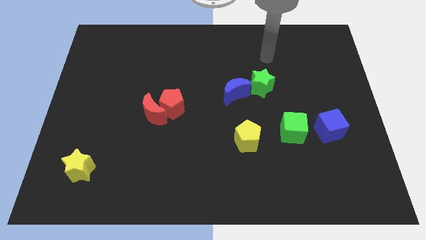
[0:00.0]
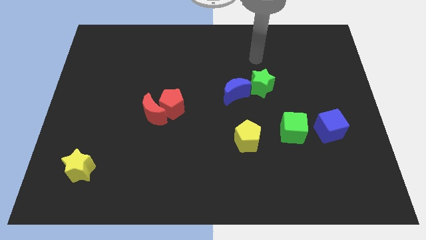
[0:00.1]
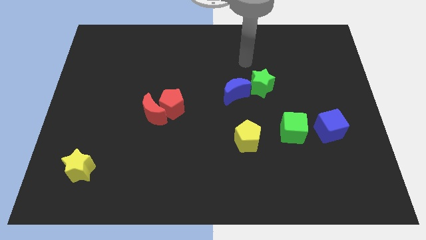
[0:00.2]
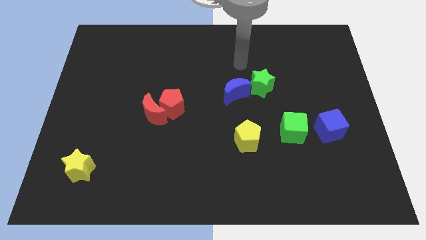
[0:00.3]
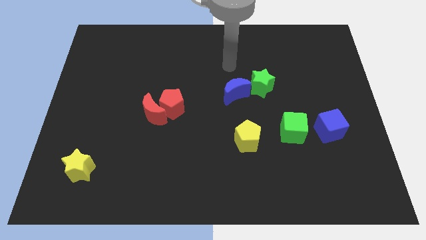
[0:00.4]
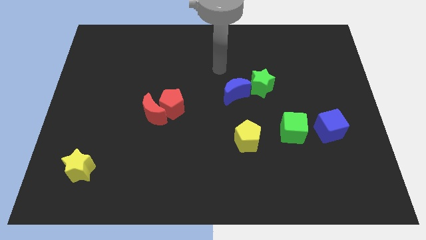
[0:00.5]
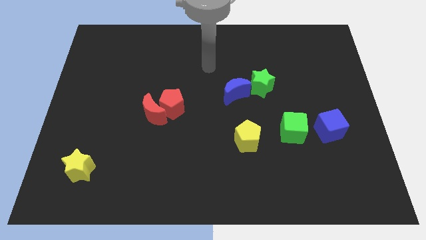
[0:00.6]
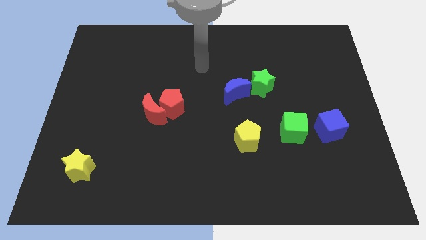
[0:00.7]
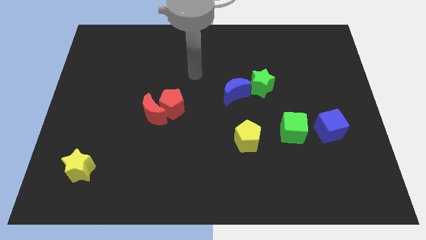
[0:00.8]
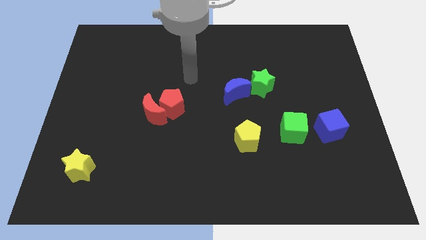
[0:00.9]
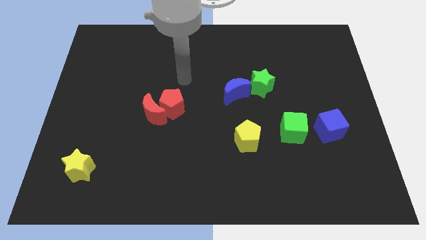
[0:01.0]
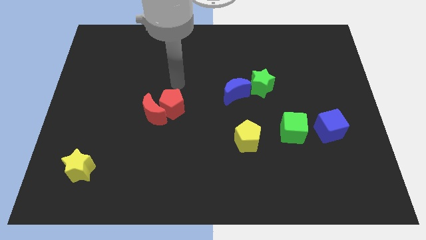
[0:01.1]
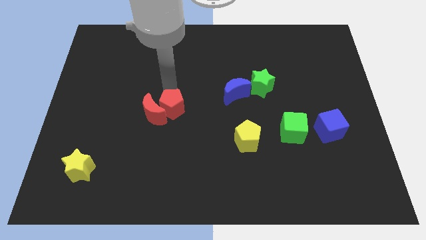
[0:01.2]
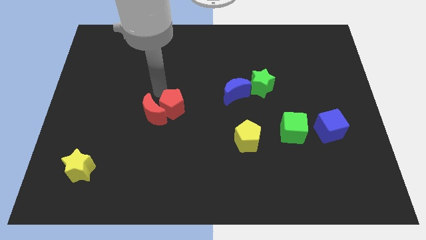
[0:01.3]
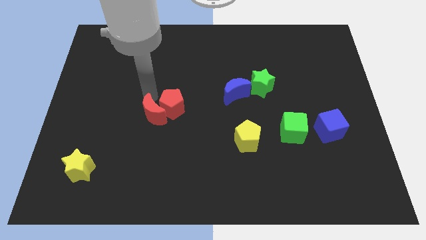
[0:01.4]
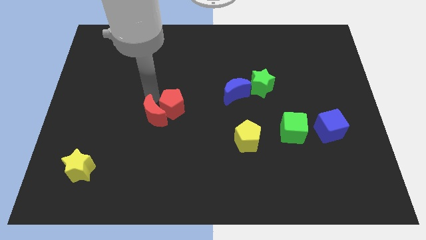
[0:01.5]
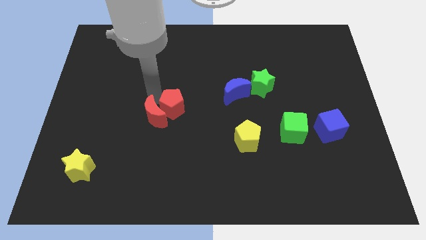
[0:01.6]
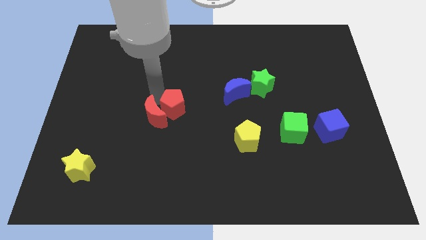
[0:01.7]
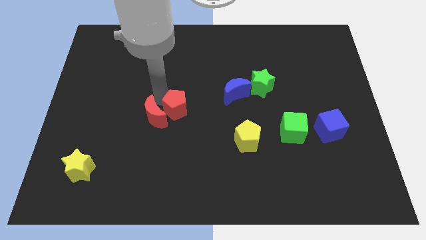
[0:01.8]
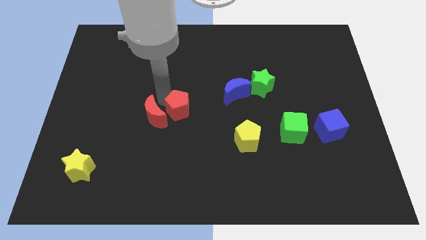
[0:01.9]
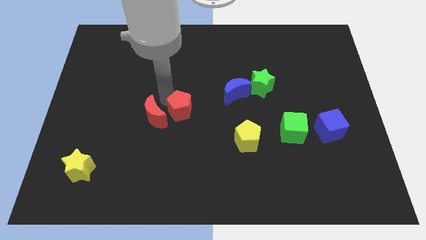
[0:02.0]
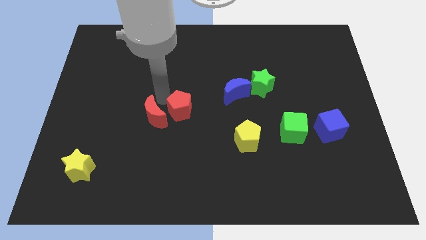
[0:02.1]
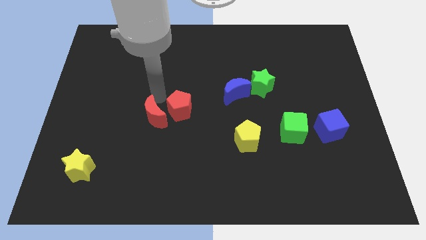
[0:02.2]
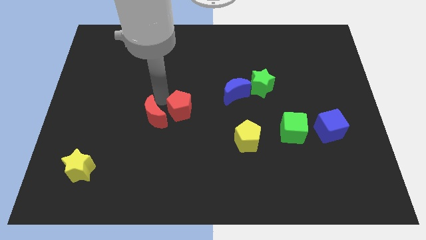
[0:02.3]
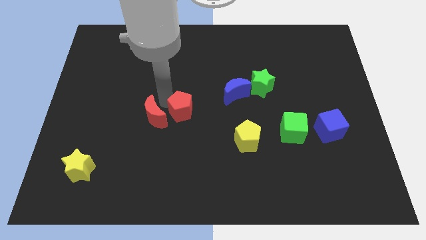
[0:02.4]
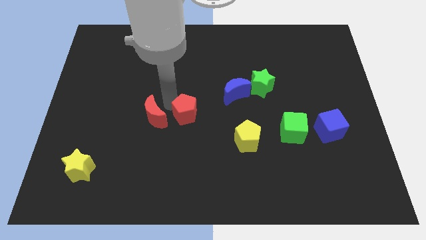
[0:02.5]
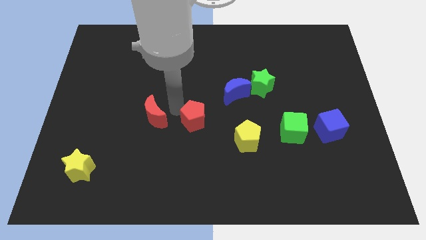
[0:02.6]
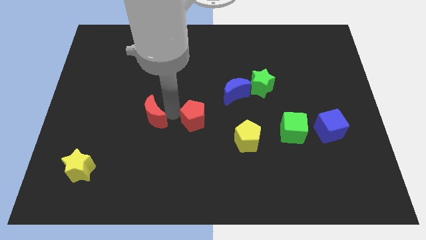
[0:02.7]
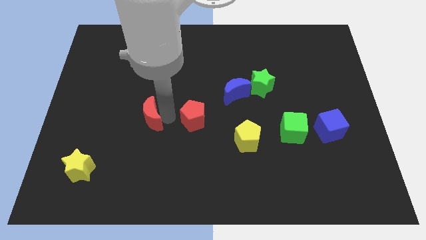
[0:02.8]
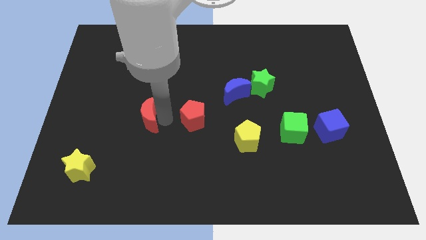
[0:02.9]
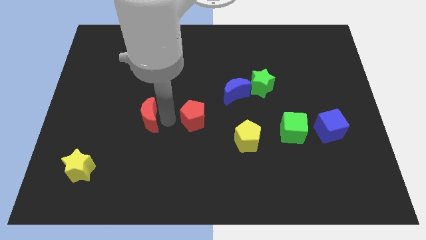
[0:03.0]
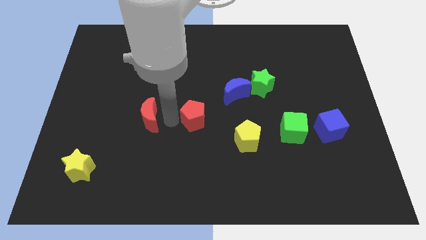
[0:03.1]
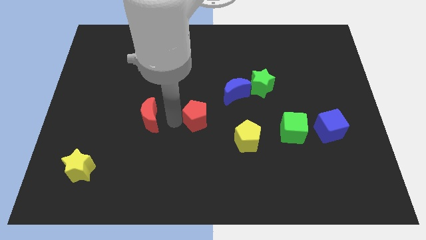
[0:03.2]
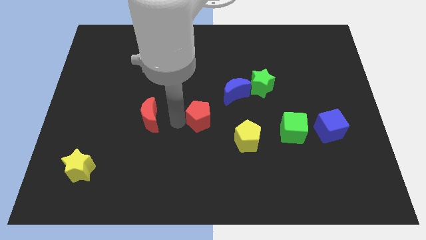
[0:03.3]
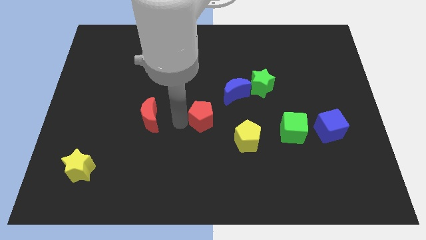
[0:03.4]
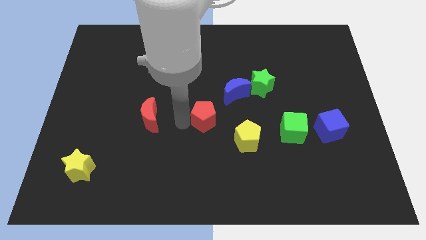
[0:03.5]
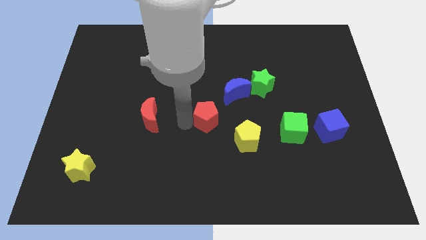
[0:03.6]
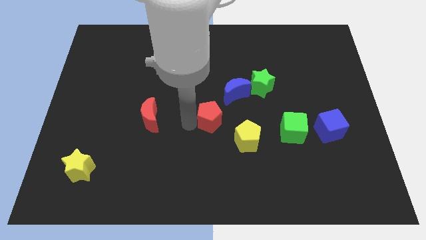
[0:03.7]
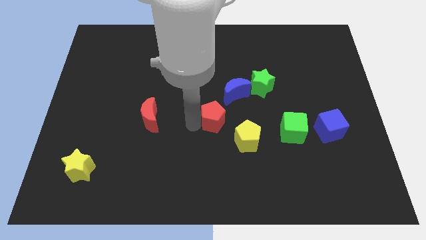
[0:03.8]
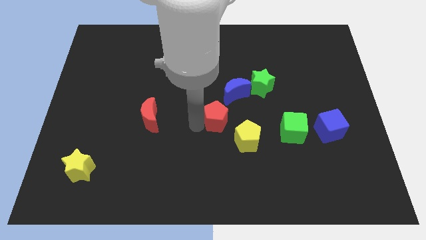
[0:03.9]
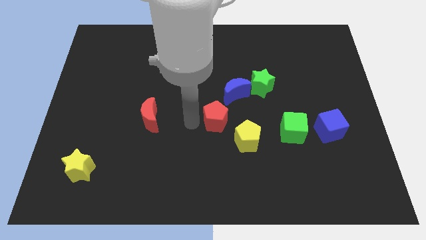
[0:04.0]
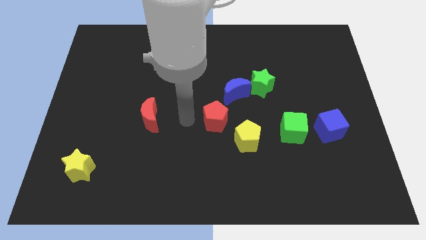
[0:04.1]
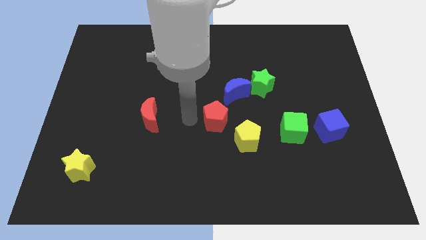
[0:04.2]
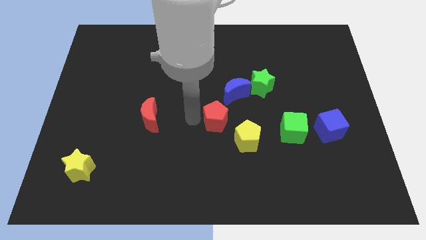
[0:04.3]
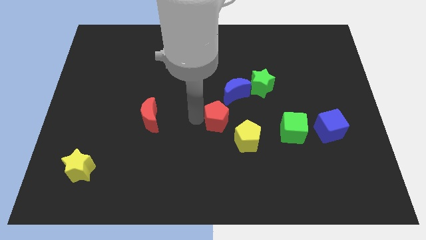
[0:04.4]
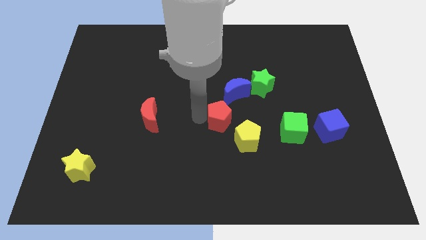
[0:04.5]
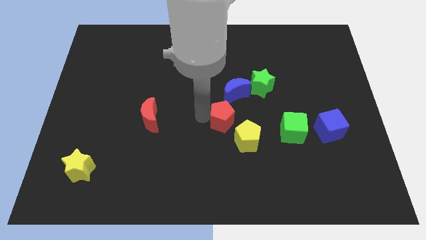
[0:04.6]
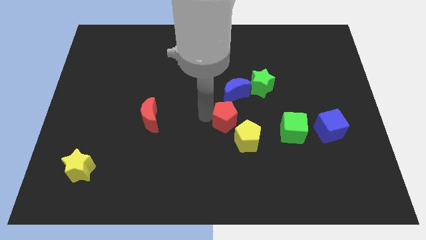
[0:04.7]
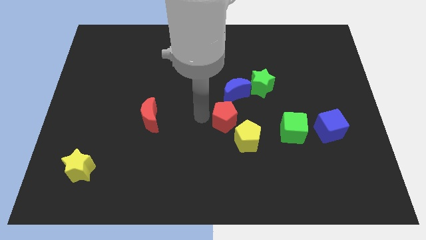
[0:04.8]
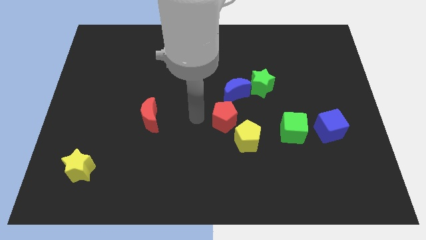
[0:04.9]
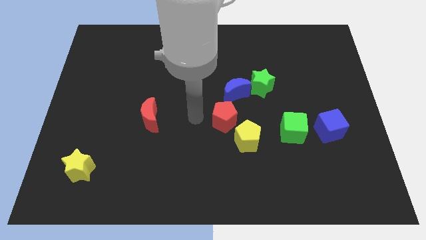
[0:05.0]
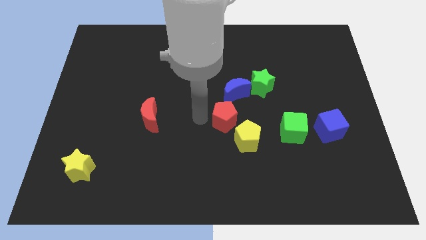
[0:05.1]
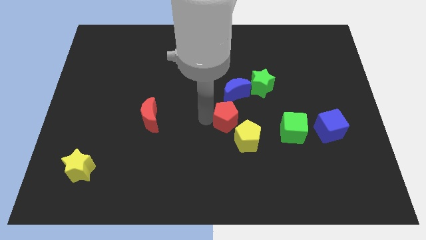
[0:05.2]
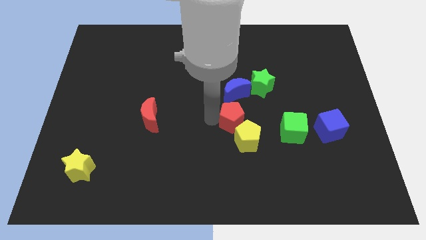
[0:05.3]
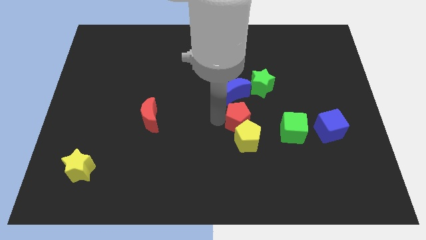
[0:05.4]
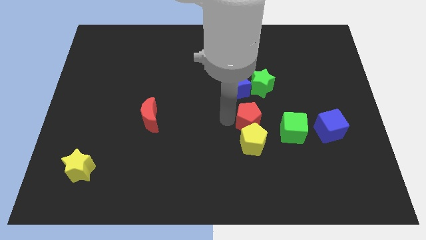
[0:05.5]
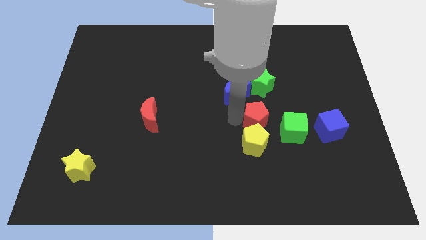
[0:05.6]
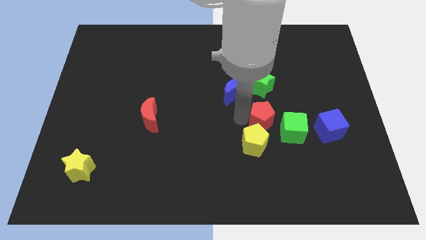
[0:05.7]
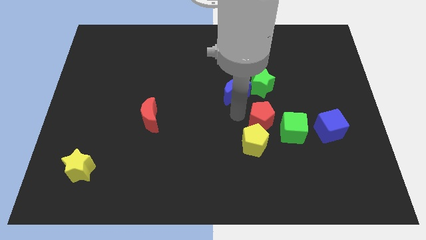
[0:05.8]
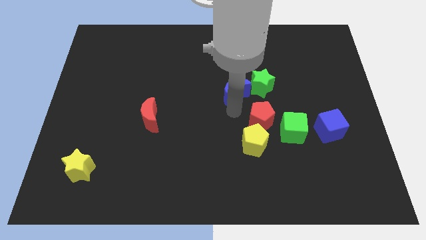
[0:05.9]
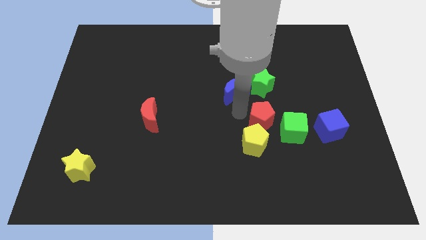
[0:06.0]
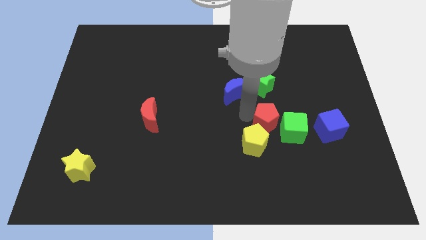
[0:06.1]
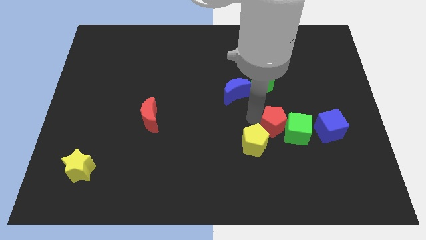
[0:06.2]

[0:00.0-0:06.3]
put the red pentagon towards the green cube

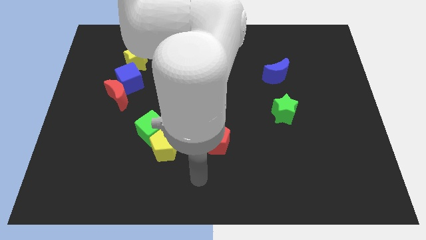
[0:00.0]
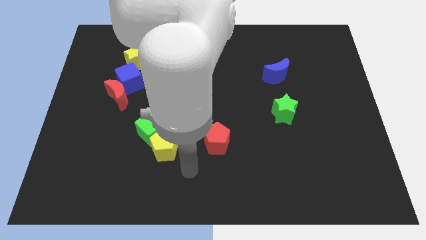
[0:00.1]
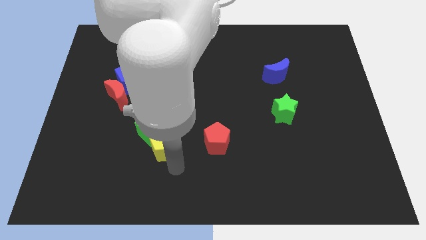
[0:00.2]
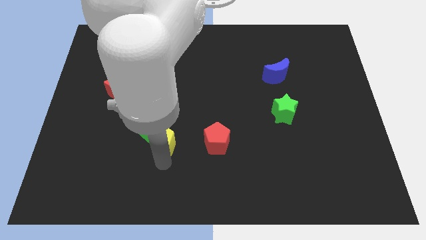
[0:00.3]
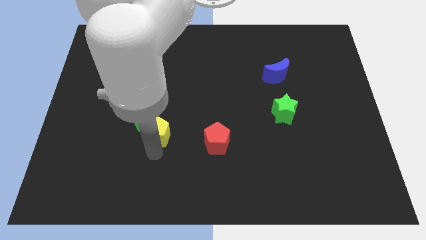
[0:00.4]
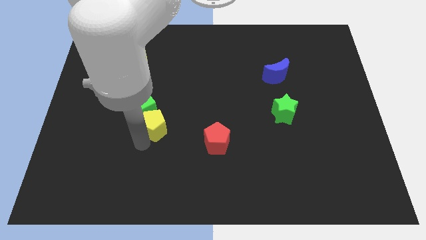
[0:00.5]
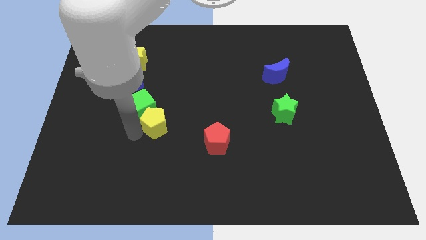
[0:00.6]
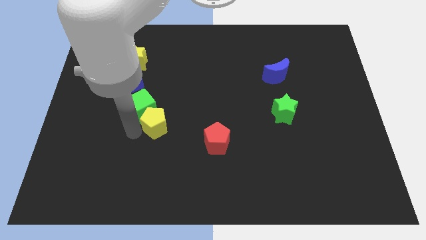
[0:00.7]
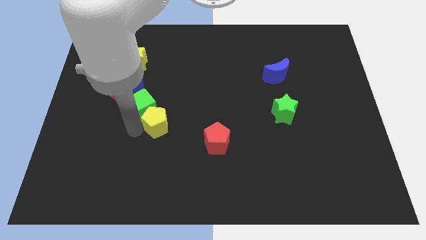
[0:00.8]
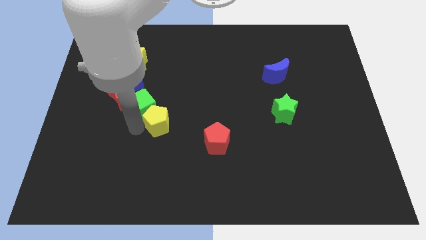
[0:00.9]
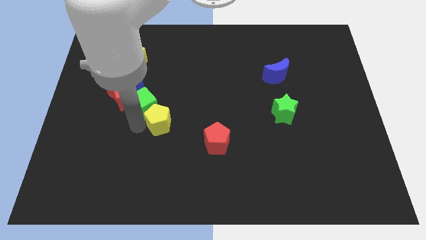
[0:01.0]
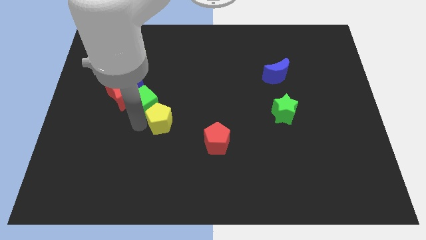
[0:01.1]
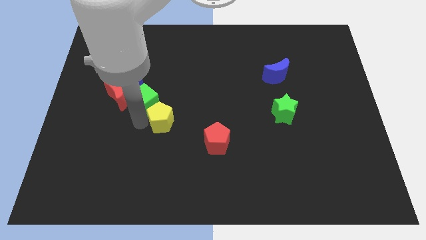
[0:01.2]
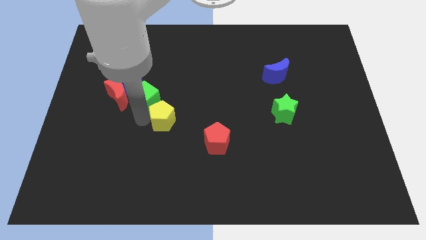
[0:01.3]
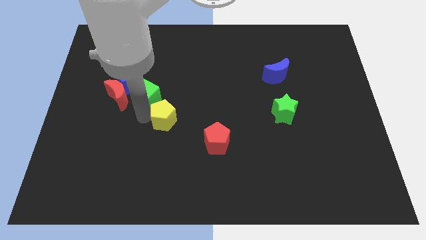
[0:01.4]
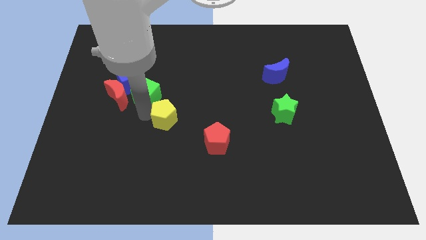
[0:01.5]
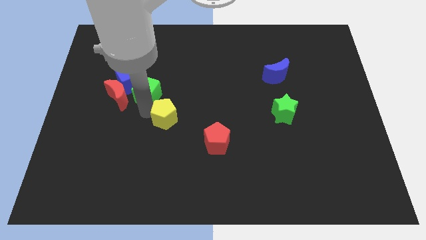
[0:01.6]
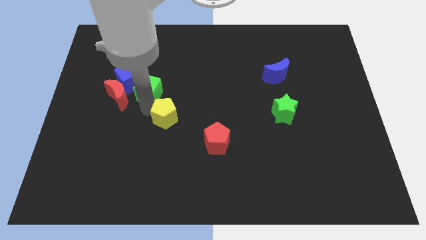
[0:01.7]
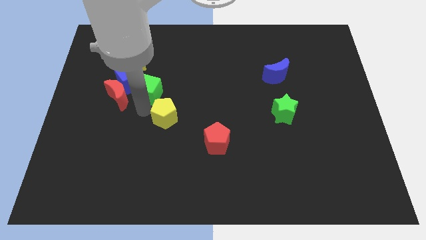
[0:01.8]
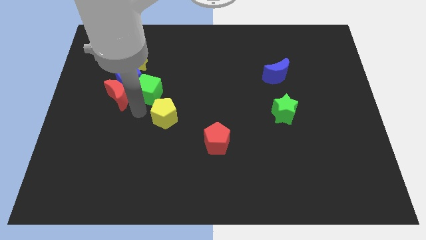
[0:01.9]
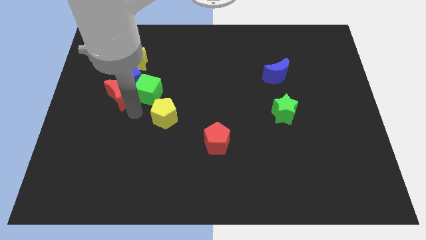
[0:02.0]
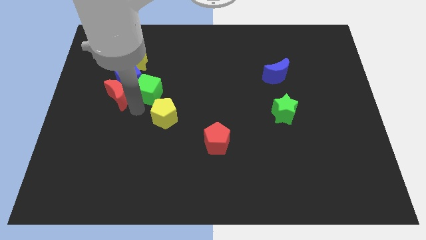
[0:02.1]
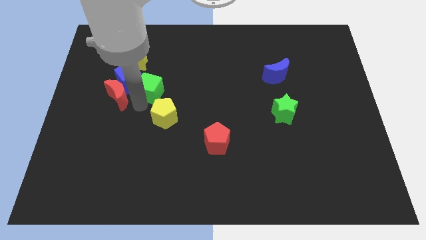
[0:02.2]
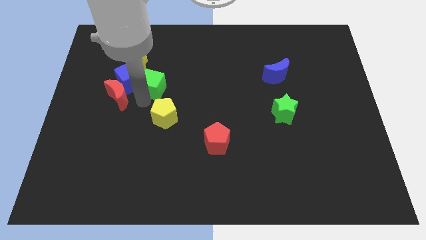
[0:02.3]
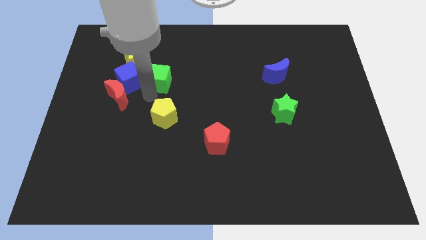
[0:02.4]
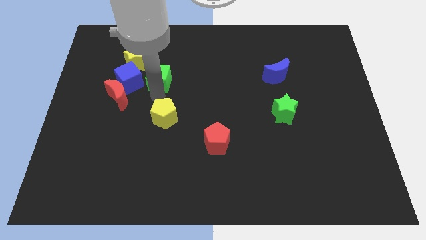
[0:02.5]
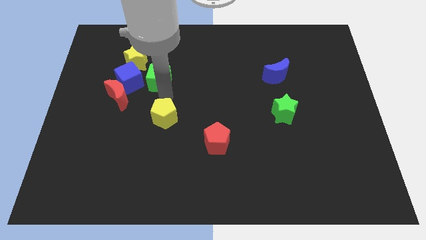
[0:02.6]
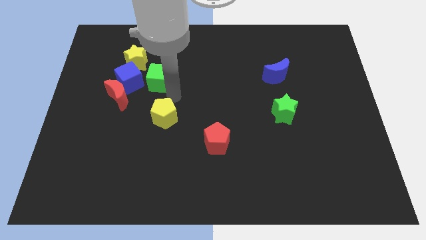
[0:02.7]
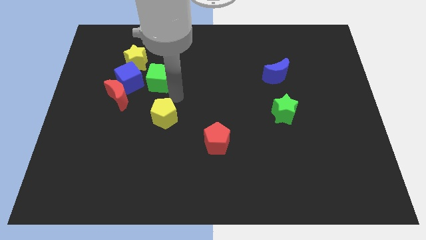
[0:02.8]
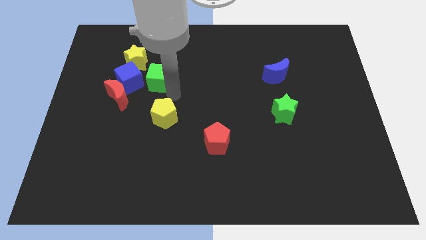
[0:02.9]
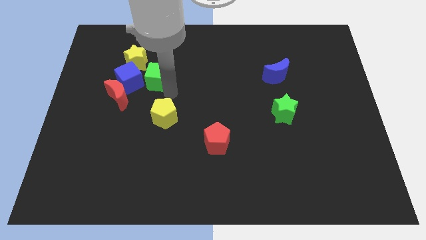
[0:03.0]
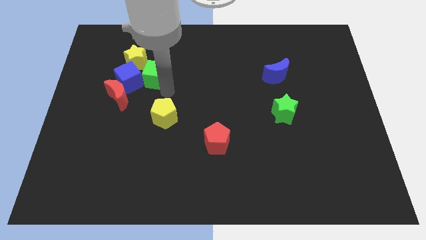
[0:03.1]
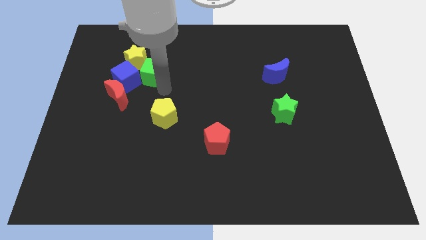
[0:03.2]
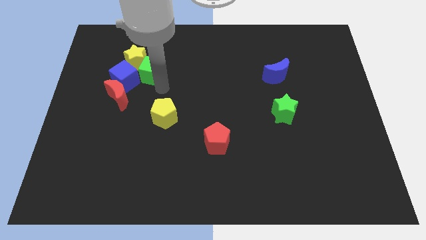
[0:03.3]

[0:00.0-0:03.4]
put the green cube close to the yellow star
